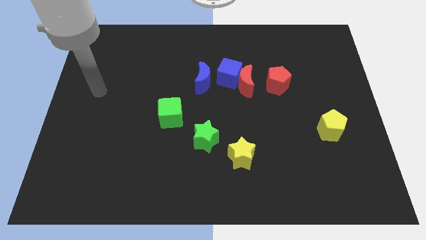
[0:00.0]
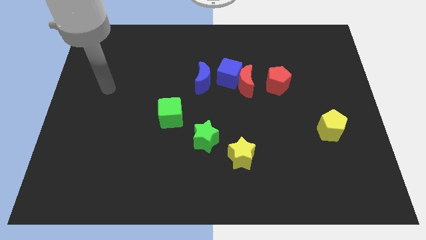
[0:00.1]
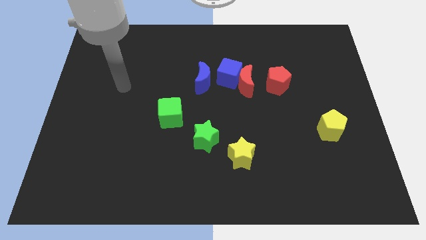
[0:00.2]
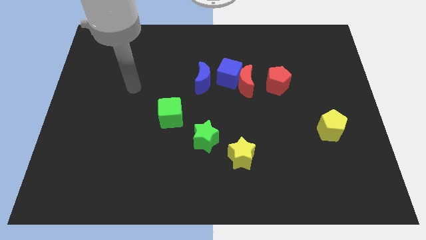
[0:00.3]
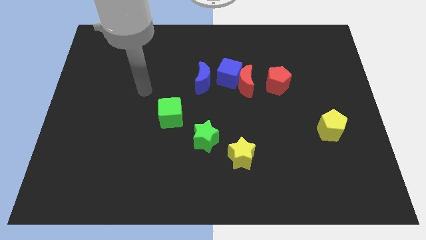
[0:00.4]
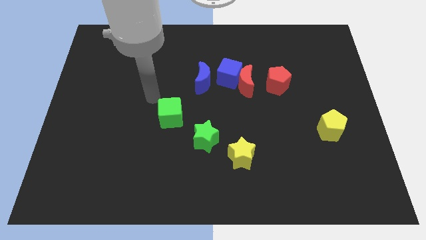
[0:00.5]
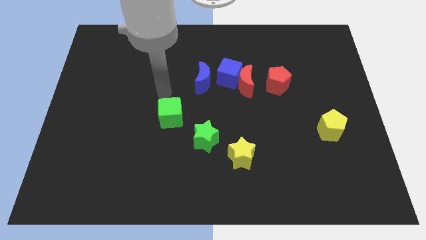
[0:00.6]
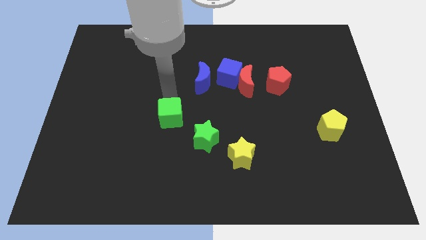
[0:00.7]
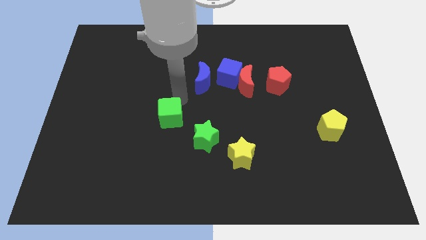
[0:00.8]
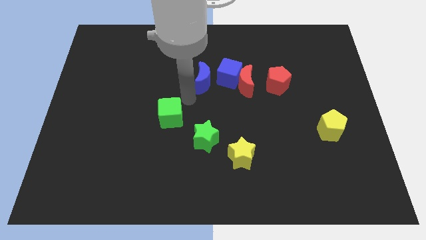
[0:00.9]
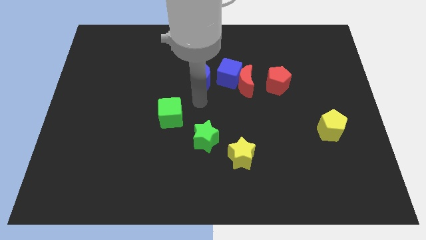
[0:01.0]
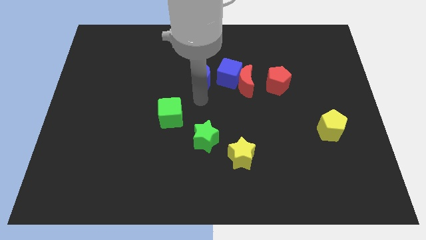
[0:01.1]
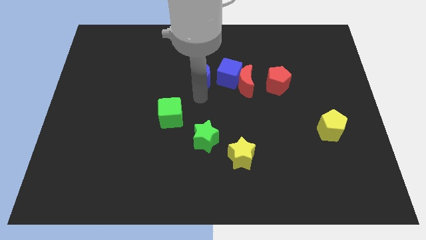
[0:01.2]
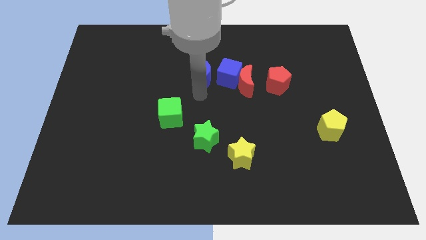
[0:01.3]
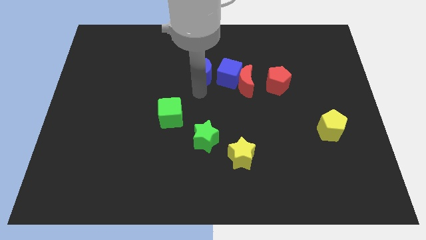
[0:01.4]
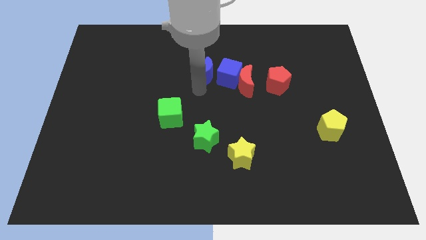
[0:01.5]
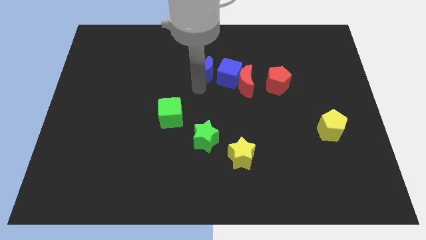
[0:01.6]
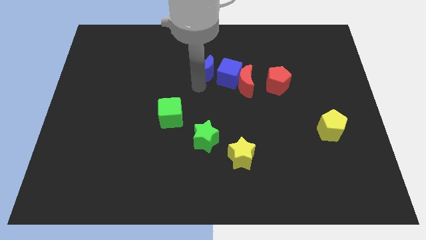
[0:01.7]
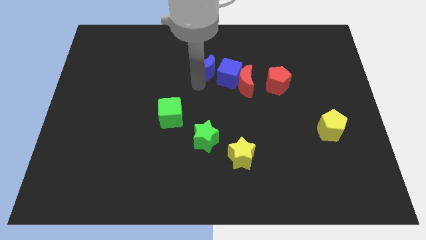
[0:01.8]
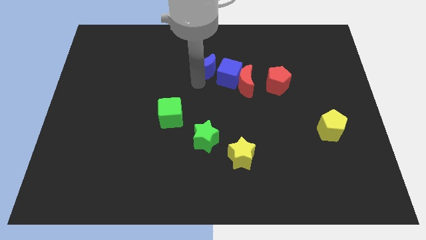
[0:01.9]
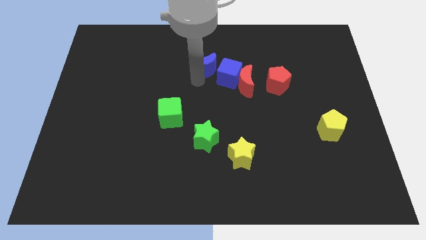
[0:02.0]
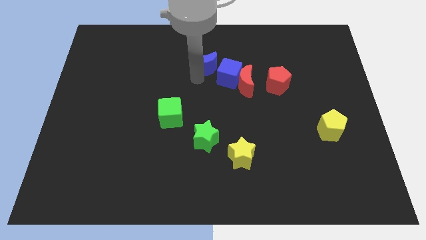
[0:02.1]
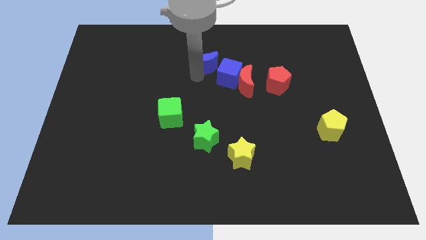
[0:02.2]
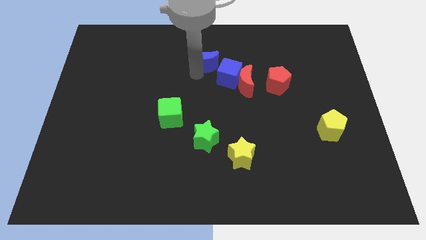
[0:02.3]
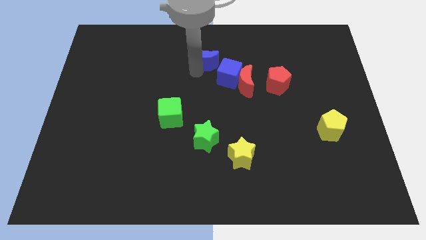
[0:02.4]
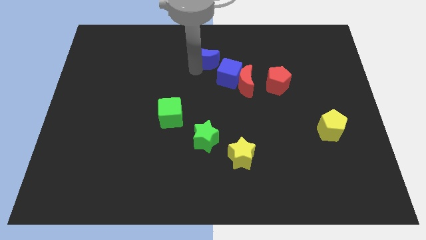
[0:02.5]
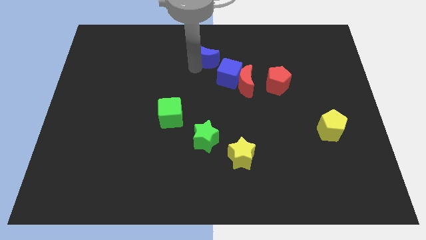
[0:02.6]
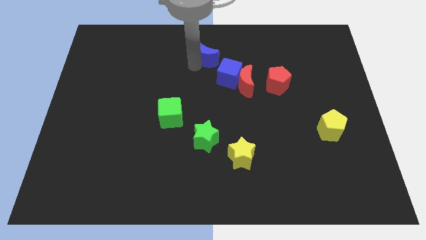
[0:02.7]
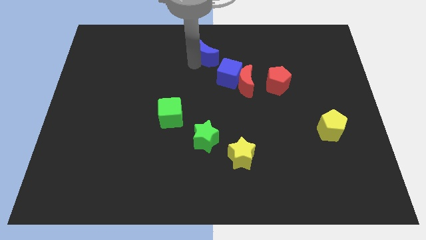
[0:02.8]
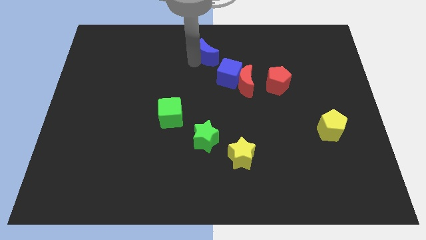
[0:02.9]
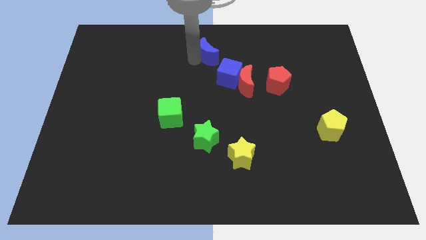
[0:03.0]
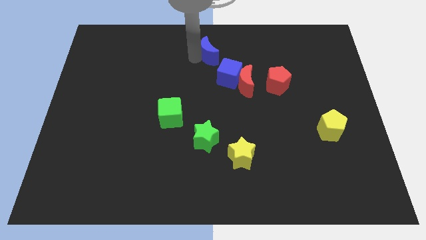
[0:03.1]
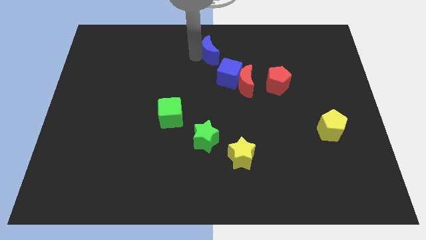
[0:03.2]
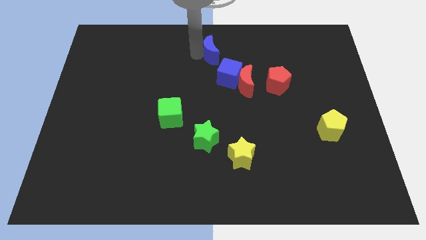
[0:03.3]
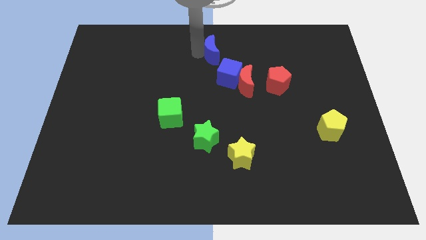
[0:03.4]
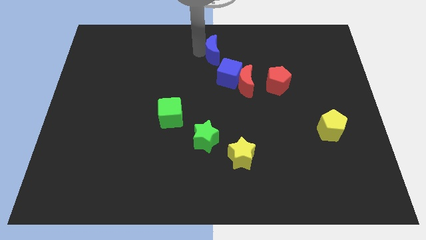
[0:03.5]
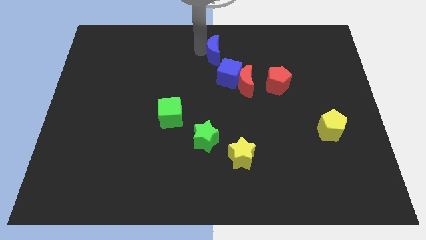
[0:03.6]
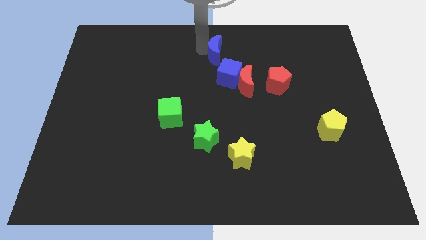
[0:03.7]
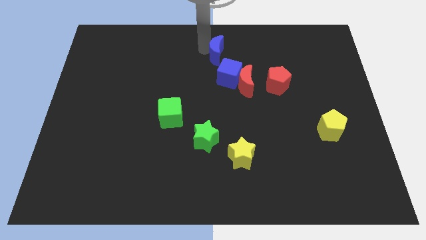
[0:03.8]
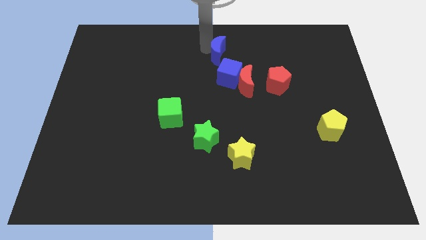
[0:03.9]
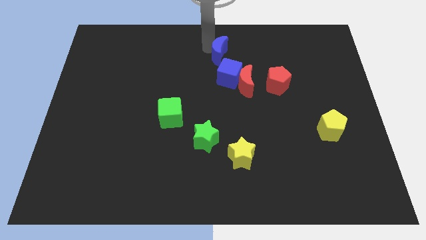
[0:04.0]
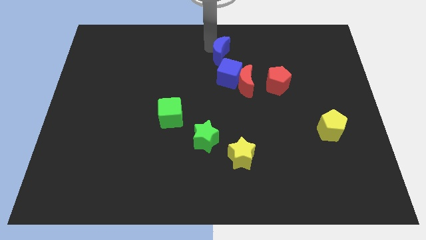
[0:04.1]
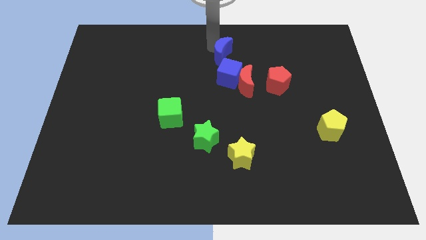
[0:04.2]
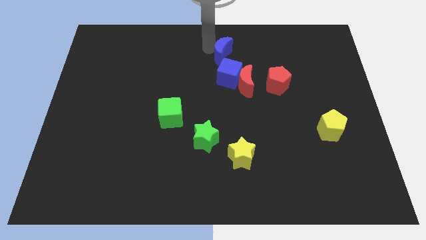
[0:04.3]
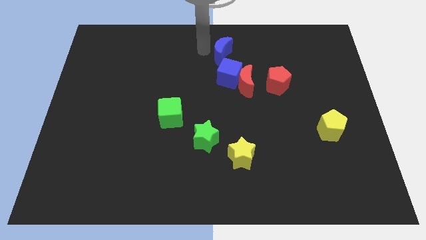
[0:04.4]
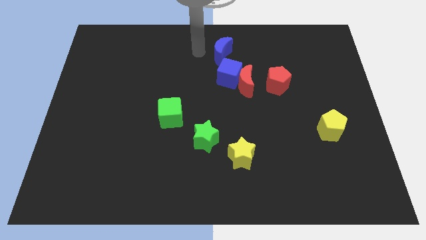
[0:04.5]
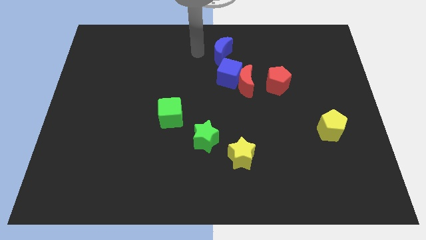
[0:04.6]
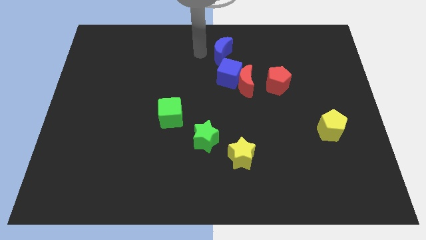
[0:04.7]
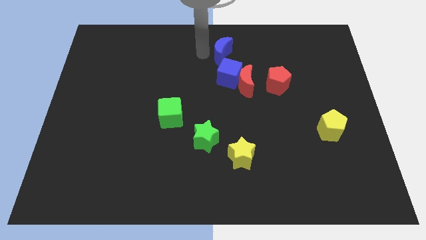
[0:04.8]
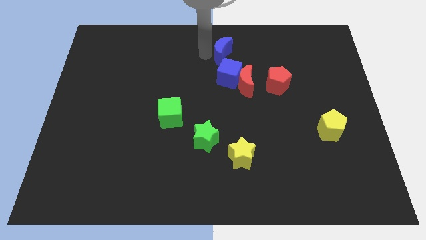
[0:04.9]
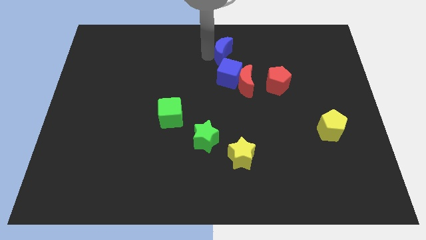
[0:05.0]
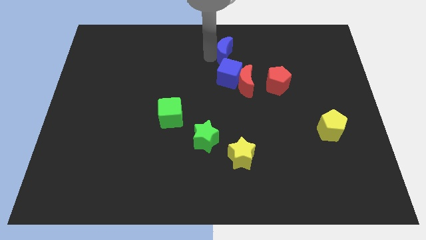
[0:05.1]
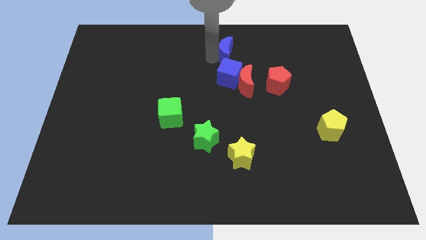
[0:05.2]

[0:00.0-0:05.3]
move the blue moon above the red moon

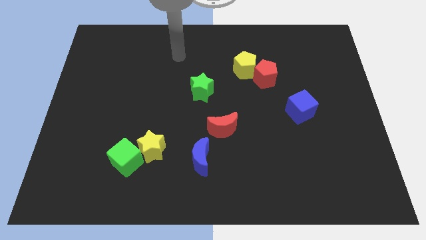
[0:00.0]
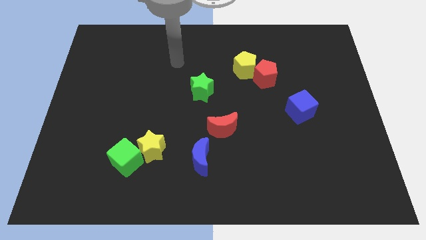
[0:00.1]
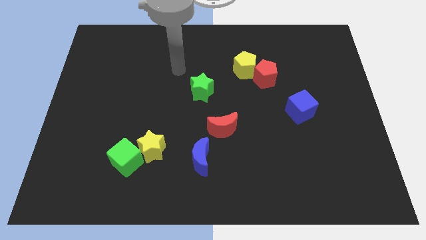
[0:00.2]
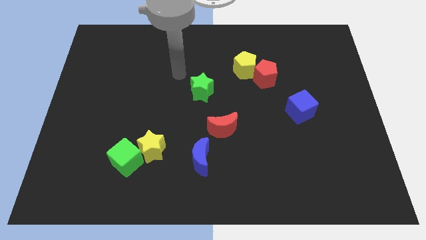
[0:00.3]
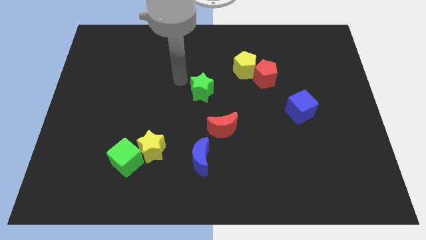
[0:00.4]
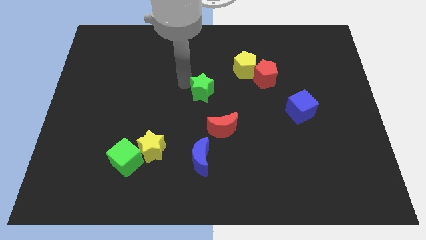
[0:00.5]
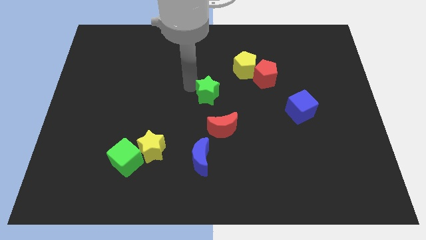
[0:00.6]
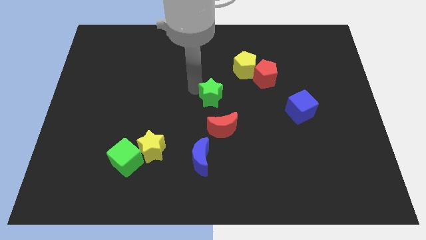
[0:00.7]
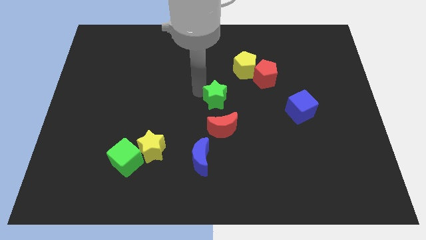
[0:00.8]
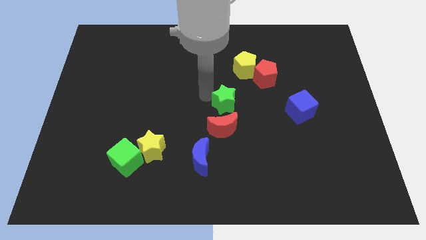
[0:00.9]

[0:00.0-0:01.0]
put the green star diagonally up and to the right of the red moon

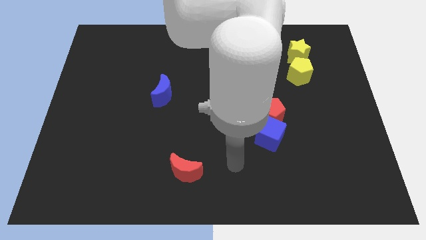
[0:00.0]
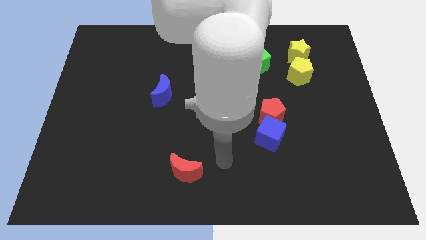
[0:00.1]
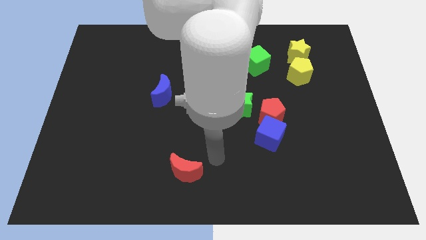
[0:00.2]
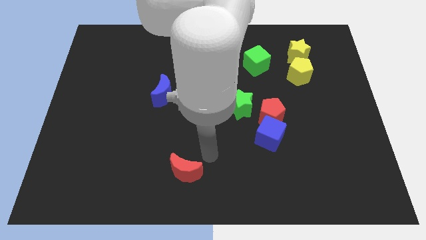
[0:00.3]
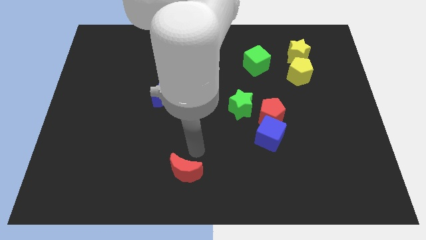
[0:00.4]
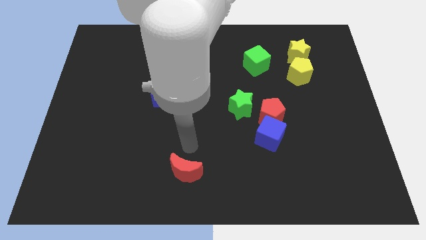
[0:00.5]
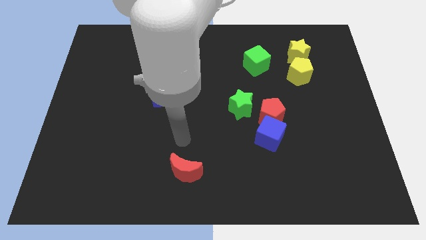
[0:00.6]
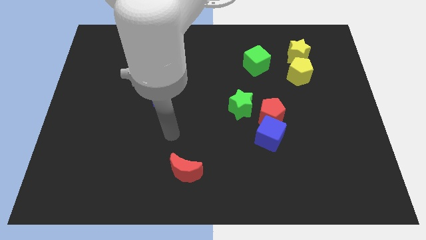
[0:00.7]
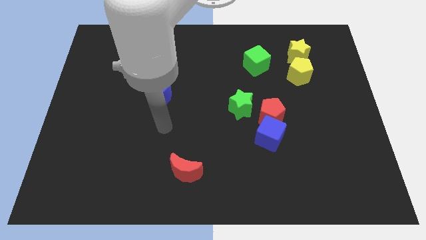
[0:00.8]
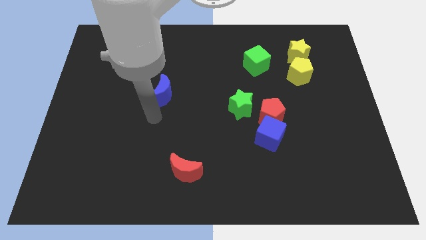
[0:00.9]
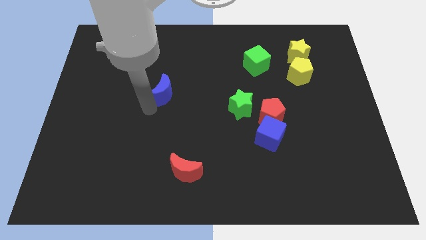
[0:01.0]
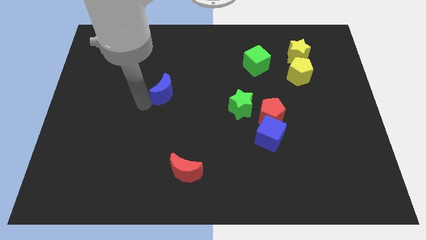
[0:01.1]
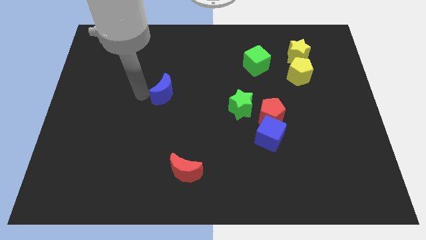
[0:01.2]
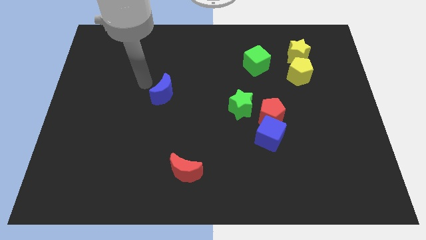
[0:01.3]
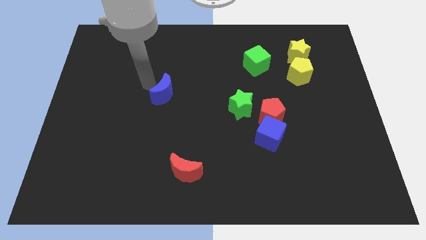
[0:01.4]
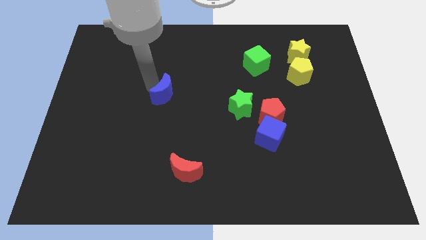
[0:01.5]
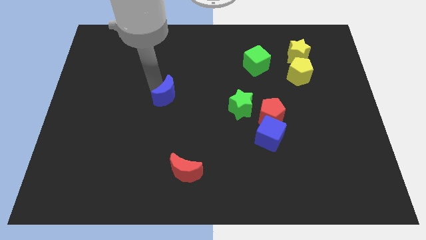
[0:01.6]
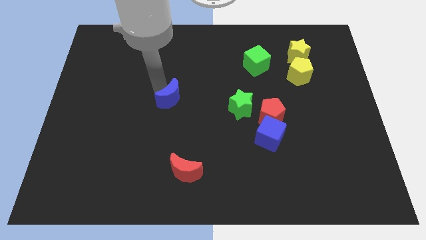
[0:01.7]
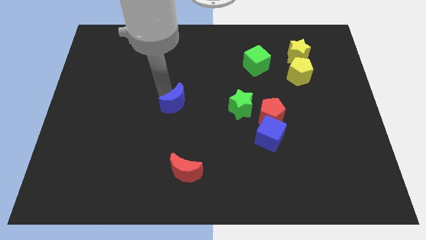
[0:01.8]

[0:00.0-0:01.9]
put the blue moon to the left side of the green star
